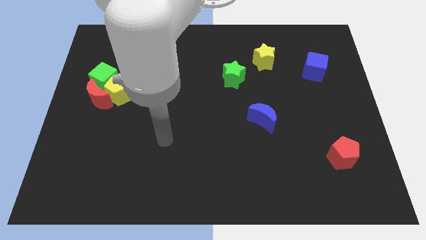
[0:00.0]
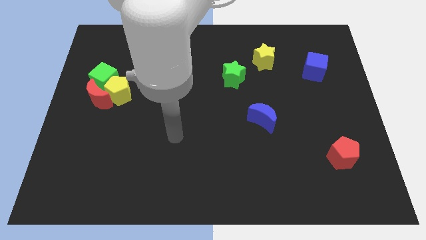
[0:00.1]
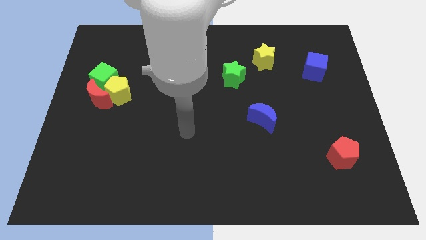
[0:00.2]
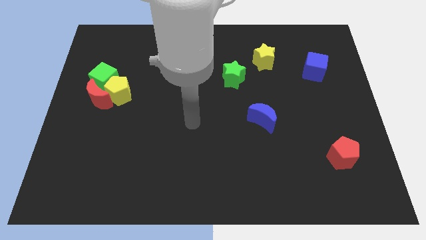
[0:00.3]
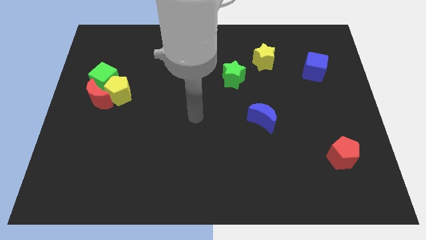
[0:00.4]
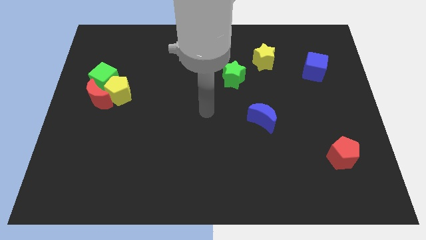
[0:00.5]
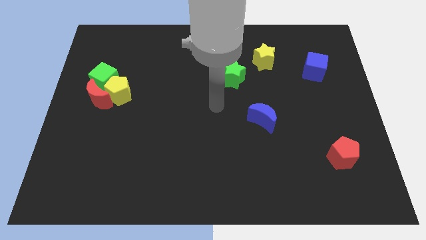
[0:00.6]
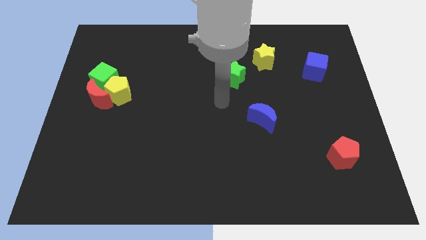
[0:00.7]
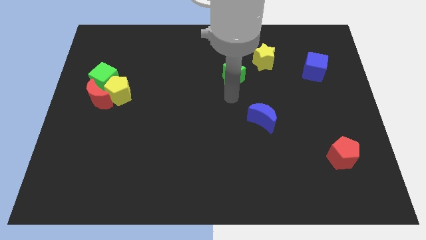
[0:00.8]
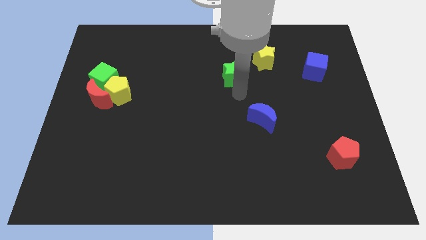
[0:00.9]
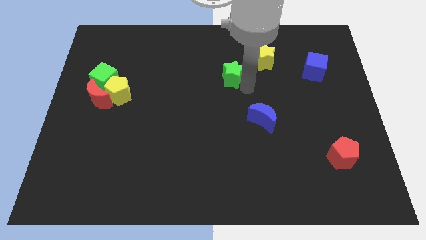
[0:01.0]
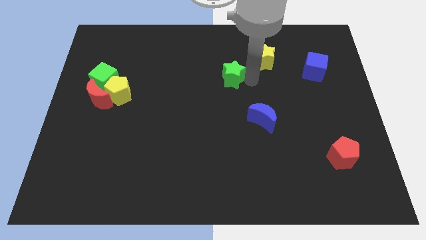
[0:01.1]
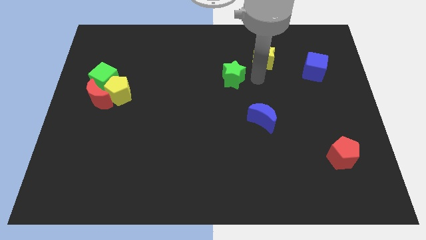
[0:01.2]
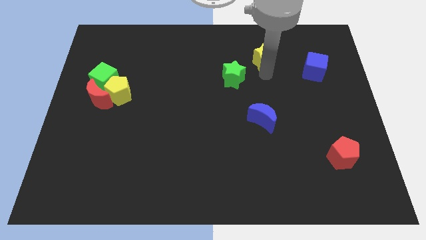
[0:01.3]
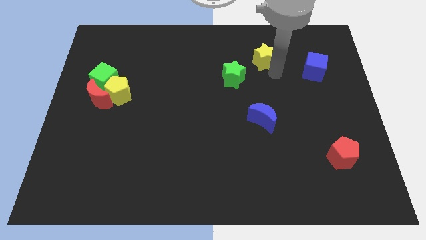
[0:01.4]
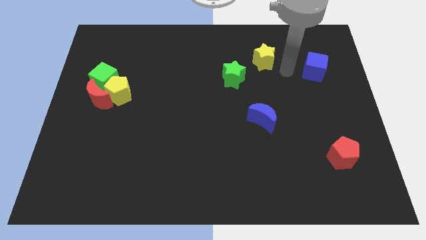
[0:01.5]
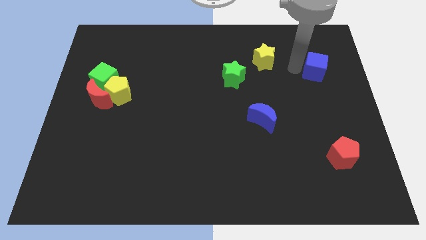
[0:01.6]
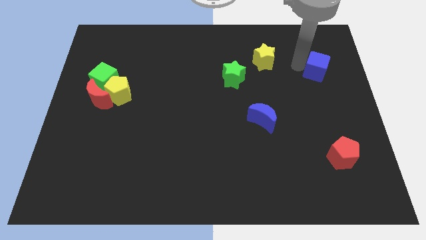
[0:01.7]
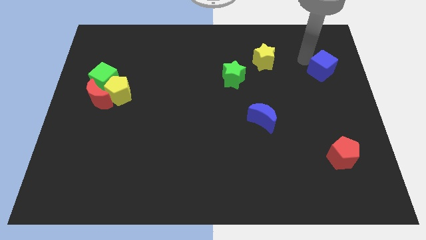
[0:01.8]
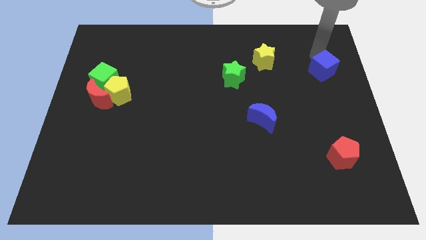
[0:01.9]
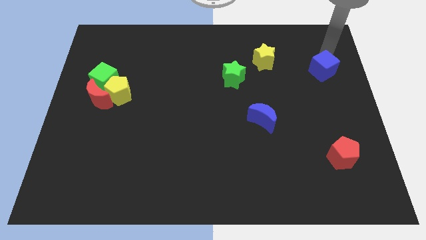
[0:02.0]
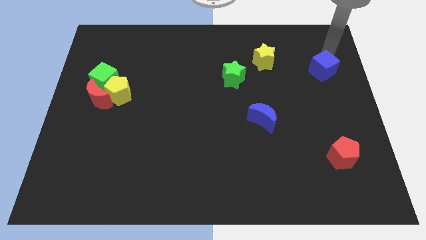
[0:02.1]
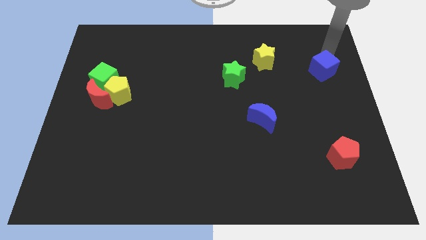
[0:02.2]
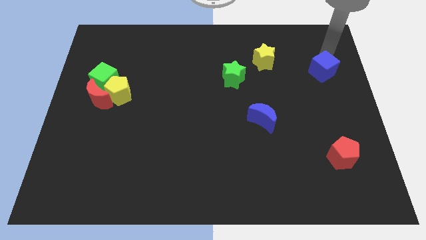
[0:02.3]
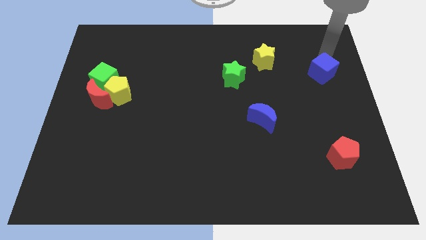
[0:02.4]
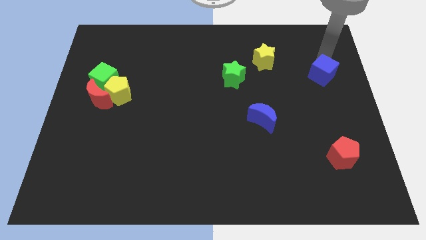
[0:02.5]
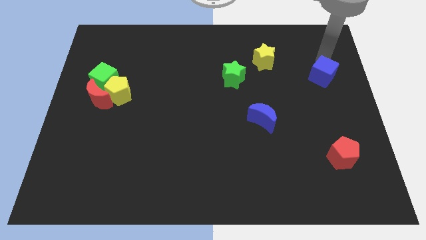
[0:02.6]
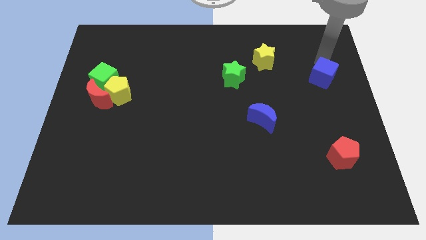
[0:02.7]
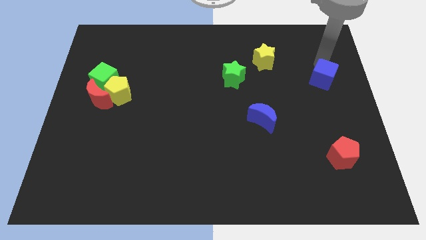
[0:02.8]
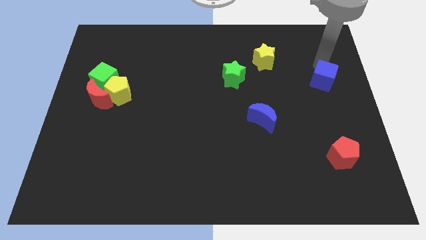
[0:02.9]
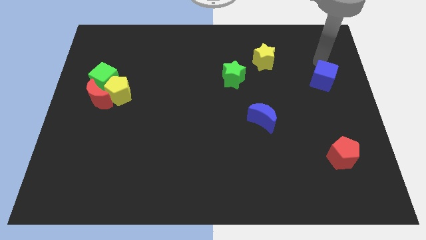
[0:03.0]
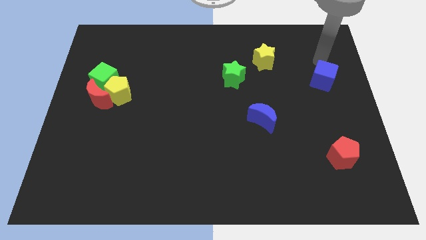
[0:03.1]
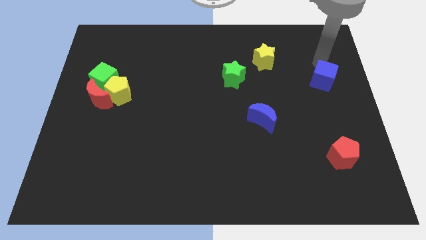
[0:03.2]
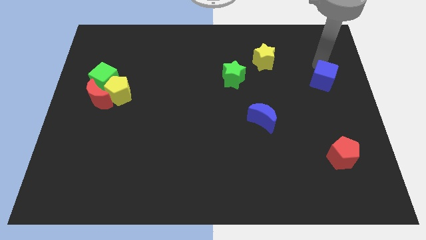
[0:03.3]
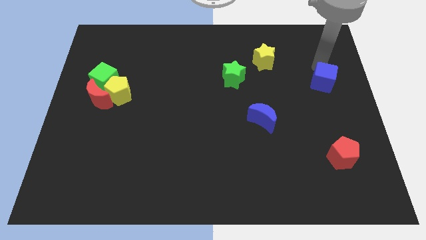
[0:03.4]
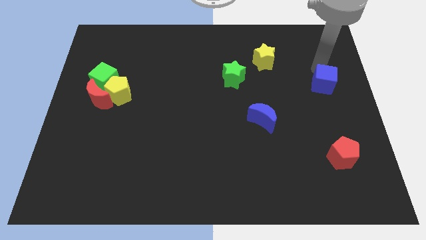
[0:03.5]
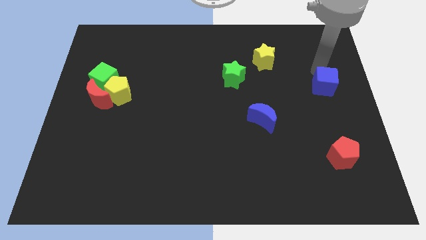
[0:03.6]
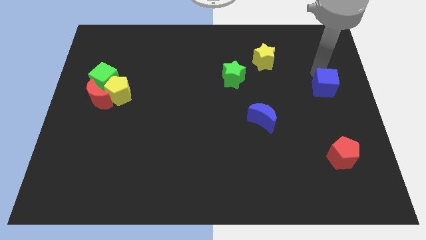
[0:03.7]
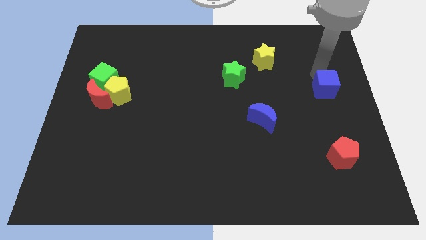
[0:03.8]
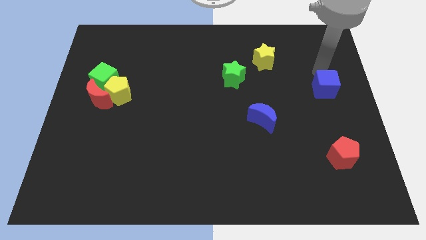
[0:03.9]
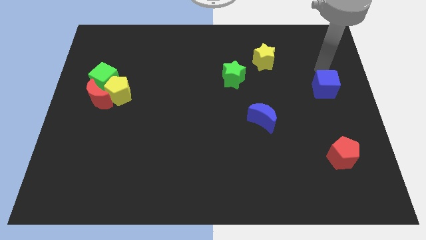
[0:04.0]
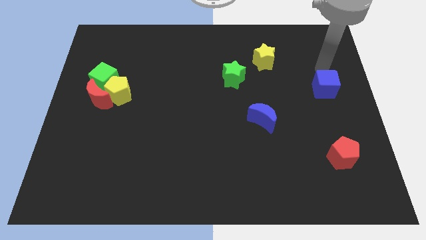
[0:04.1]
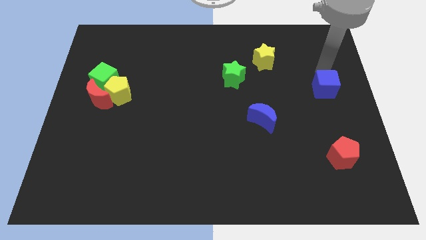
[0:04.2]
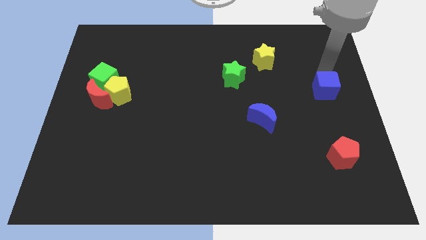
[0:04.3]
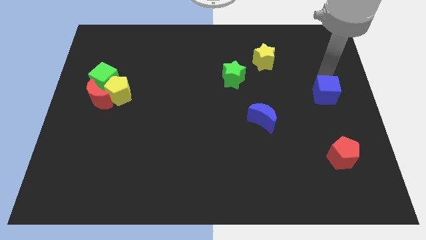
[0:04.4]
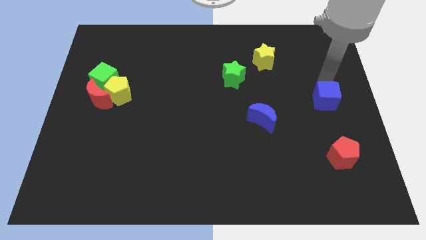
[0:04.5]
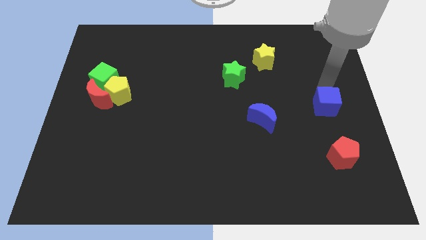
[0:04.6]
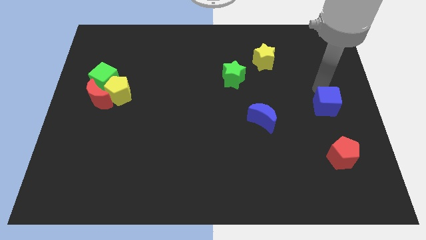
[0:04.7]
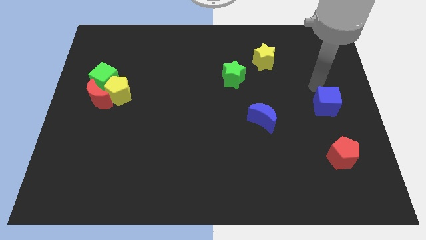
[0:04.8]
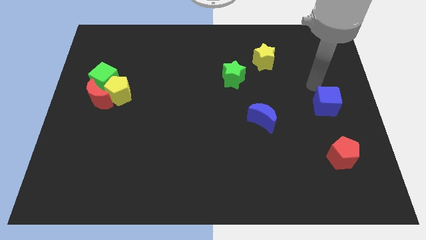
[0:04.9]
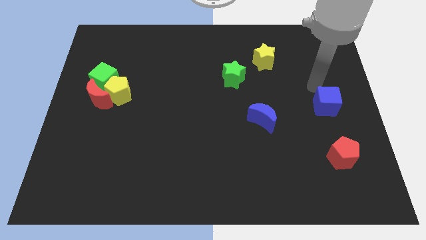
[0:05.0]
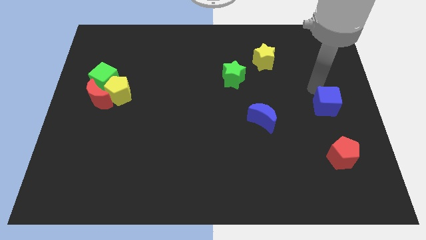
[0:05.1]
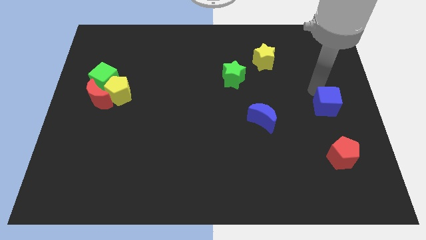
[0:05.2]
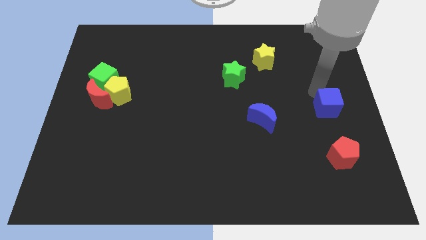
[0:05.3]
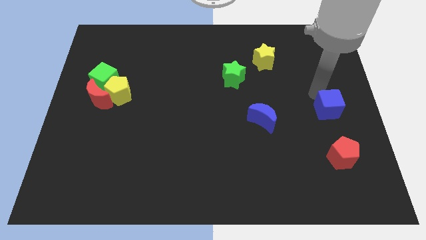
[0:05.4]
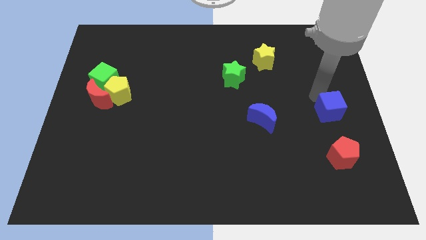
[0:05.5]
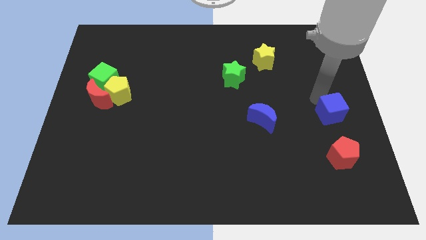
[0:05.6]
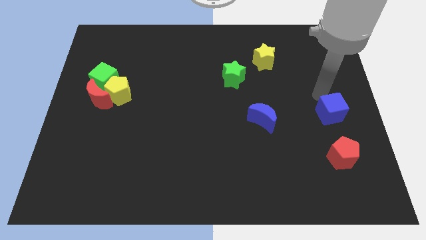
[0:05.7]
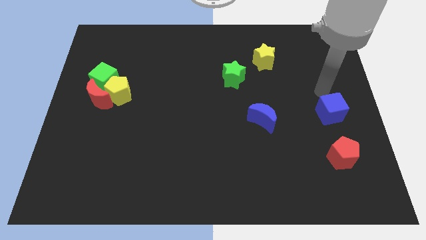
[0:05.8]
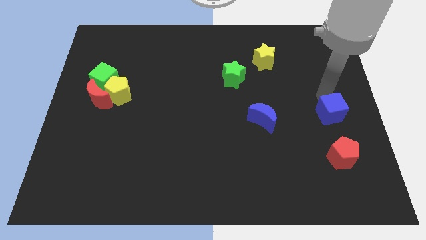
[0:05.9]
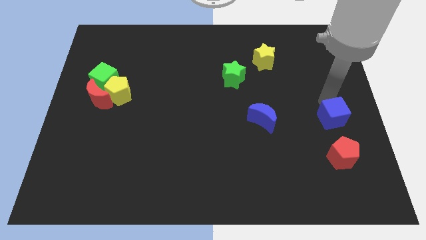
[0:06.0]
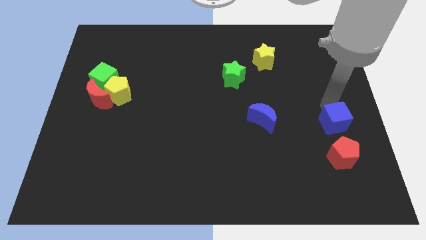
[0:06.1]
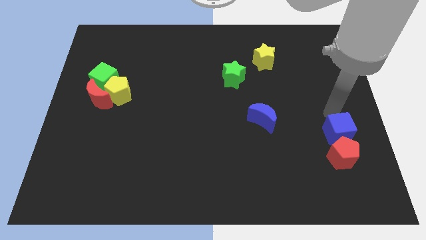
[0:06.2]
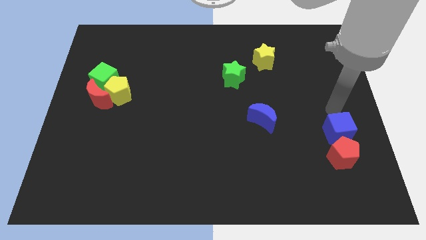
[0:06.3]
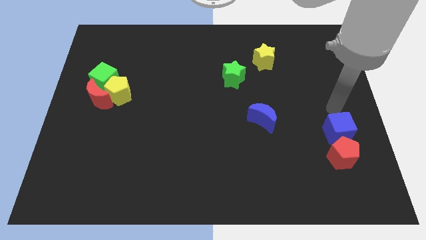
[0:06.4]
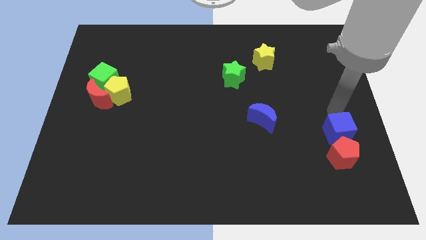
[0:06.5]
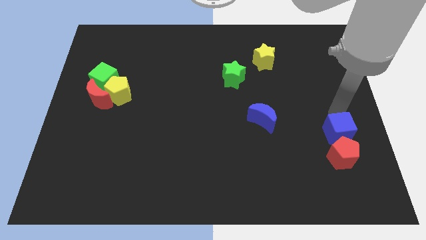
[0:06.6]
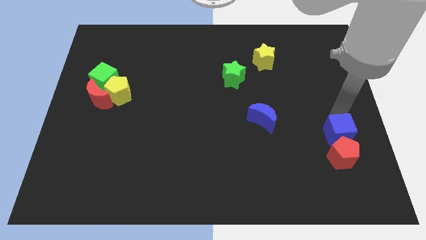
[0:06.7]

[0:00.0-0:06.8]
push the blue cube close to the red pentagon

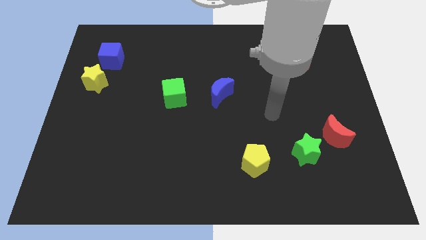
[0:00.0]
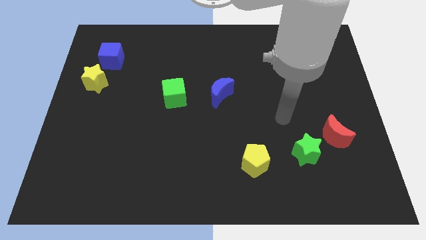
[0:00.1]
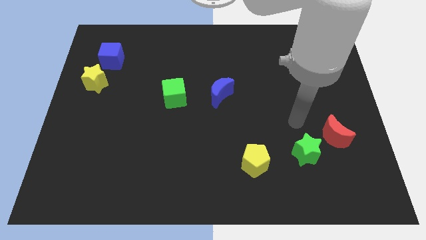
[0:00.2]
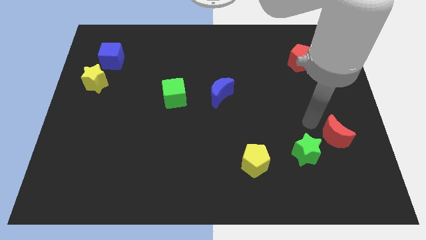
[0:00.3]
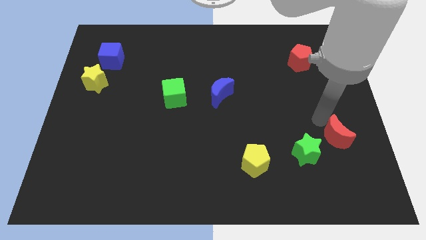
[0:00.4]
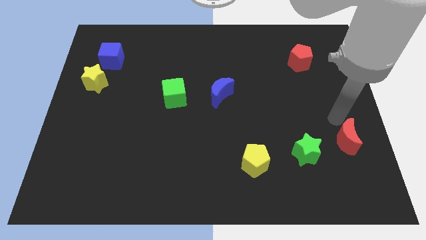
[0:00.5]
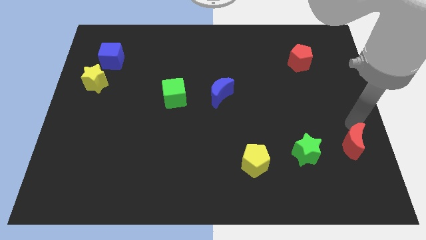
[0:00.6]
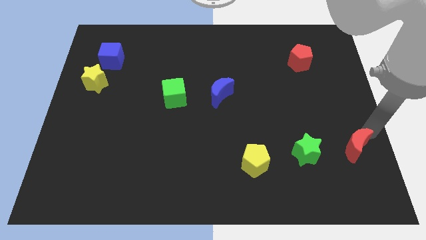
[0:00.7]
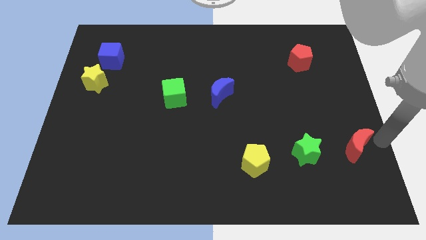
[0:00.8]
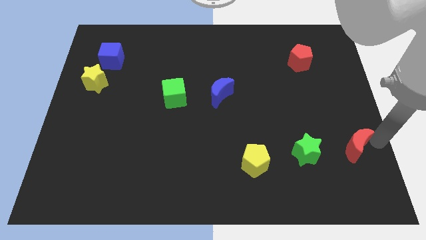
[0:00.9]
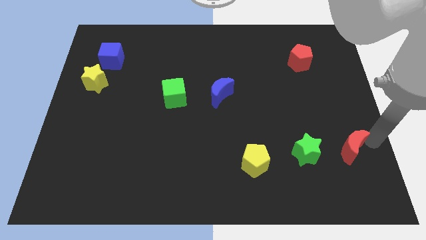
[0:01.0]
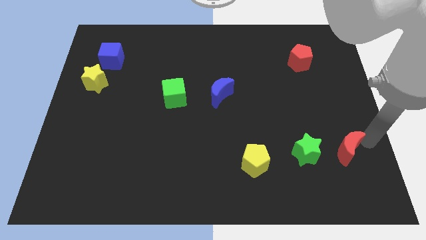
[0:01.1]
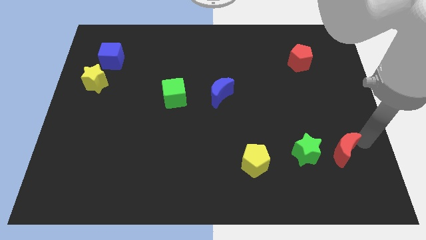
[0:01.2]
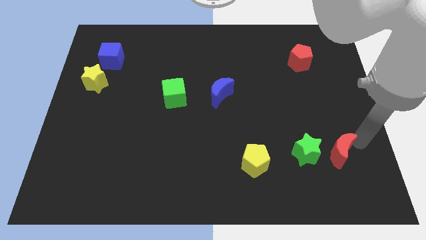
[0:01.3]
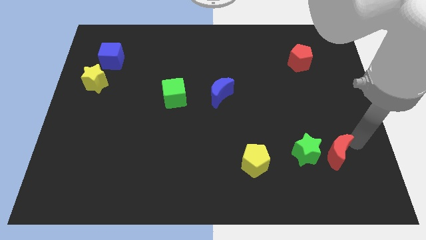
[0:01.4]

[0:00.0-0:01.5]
move the red moon close to the green star
